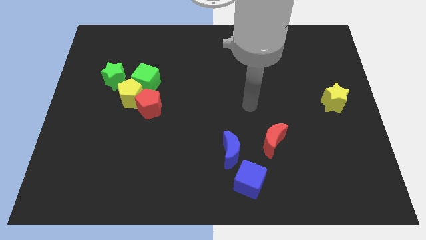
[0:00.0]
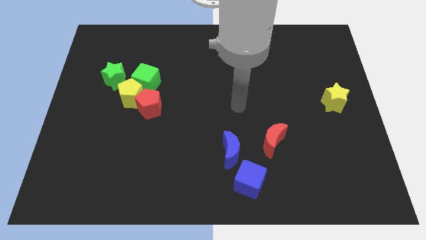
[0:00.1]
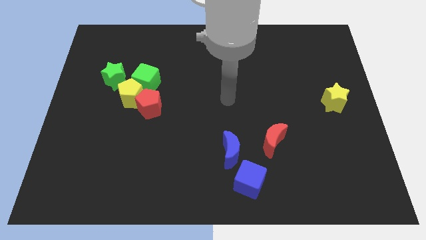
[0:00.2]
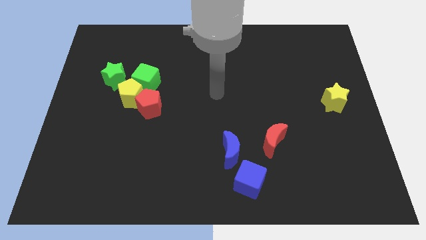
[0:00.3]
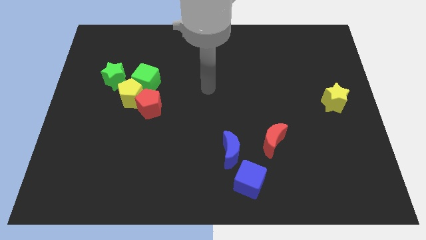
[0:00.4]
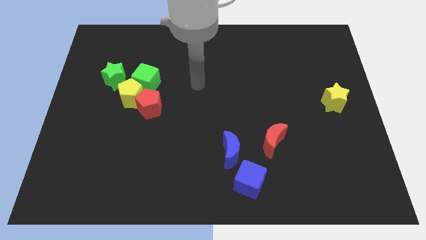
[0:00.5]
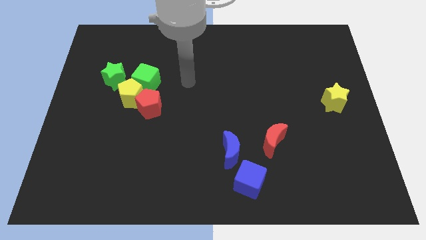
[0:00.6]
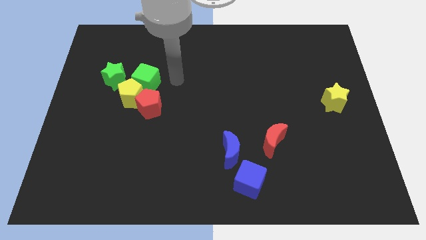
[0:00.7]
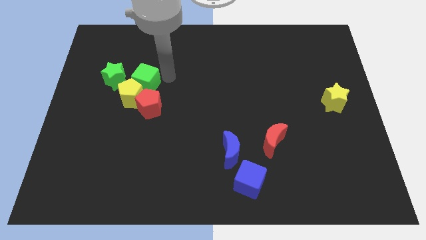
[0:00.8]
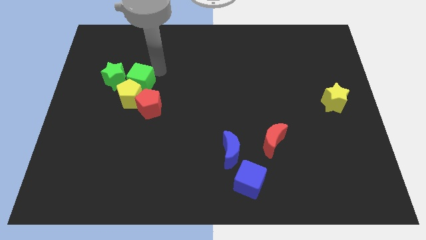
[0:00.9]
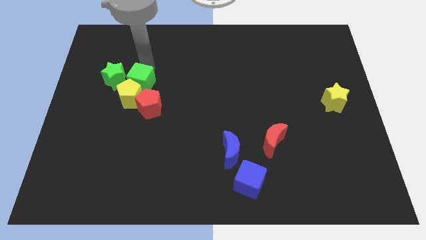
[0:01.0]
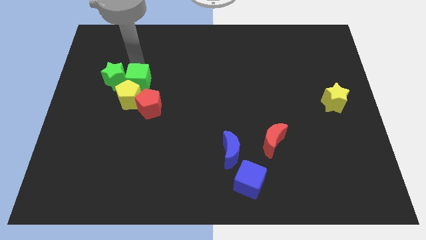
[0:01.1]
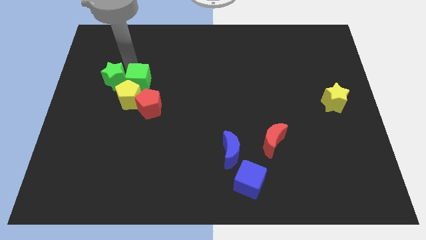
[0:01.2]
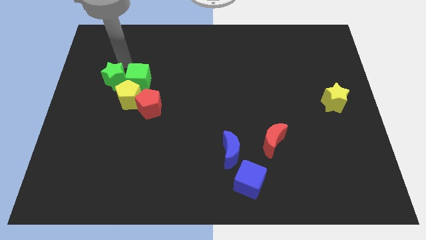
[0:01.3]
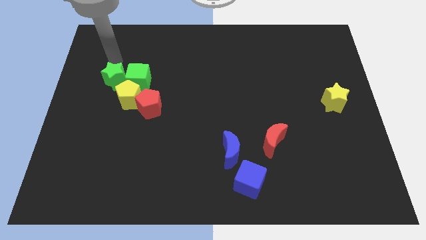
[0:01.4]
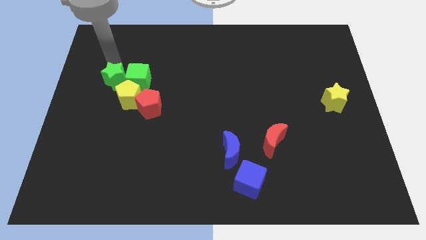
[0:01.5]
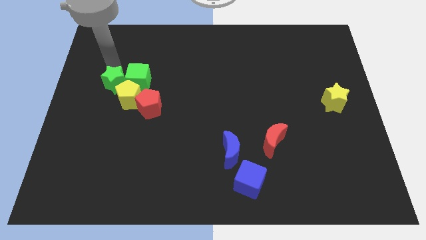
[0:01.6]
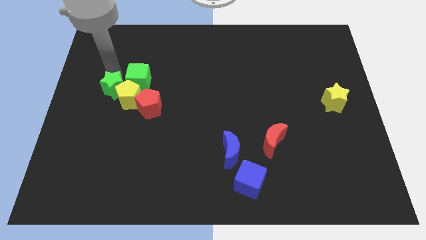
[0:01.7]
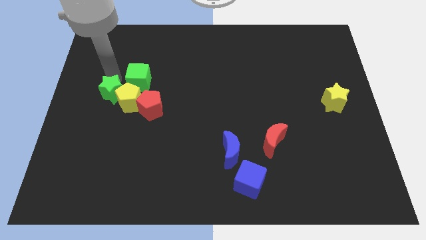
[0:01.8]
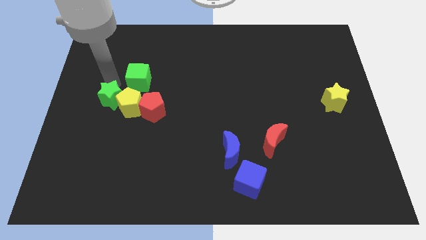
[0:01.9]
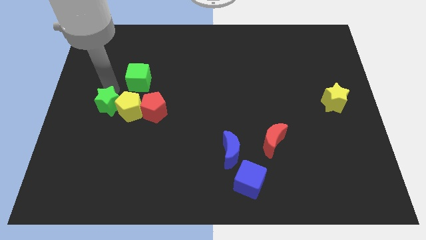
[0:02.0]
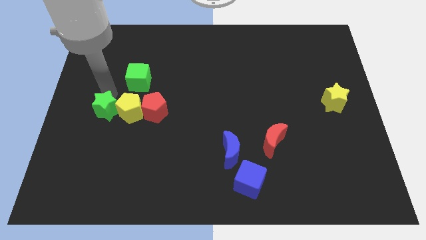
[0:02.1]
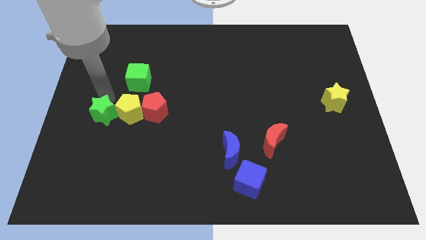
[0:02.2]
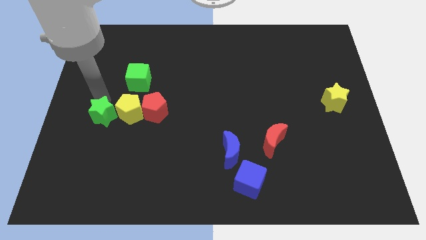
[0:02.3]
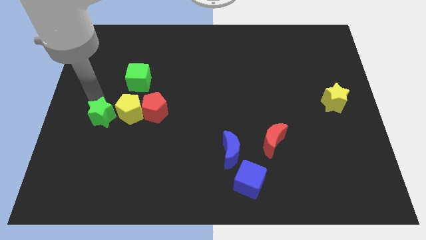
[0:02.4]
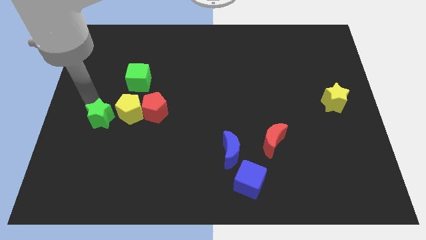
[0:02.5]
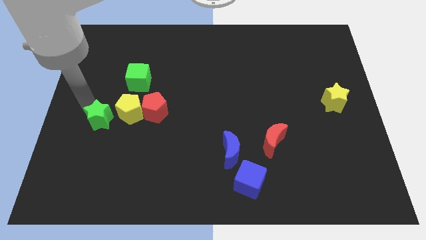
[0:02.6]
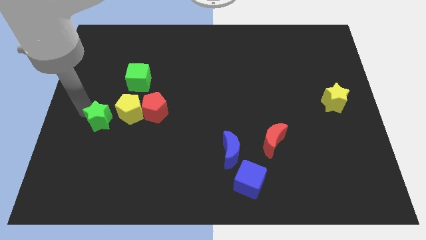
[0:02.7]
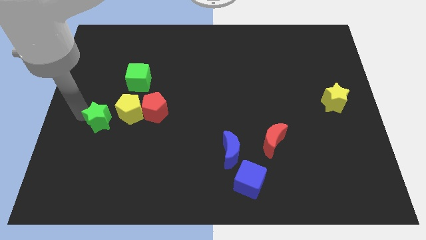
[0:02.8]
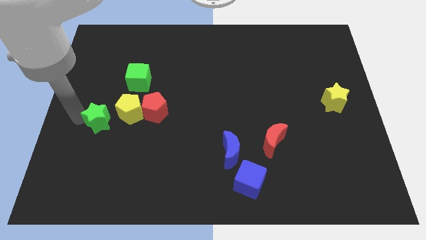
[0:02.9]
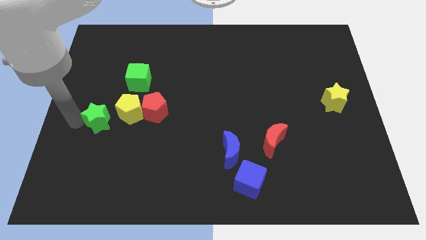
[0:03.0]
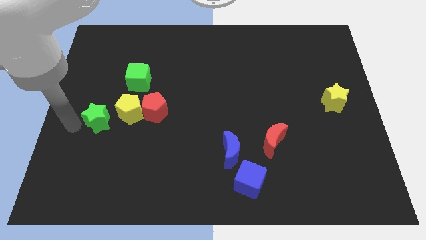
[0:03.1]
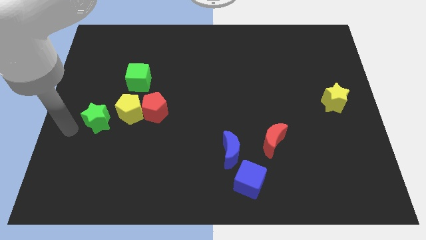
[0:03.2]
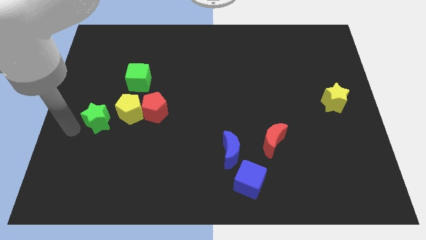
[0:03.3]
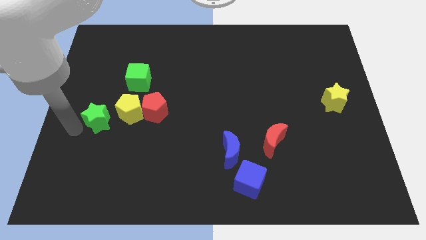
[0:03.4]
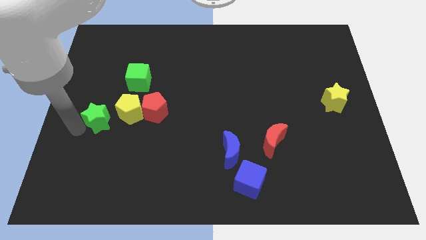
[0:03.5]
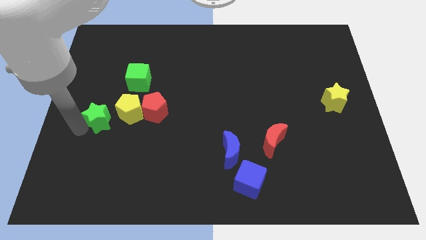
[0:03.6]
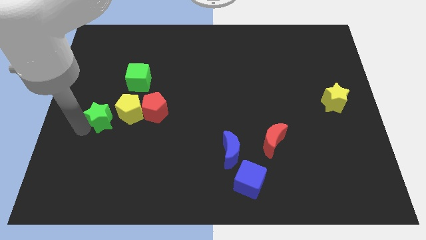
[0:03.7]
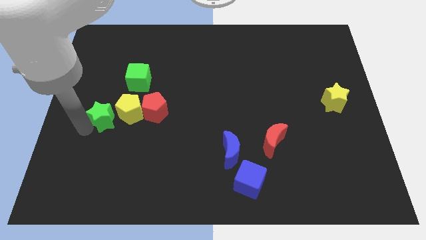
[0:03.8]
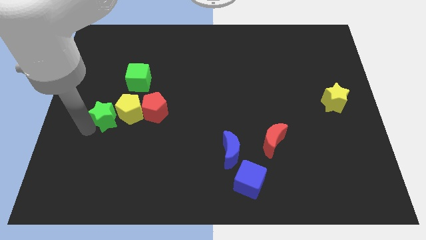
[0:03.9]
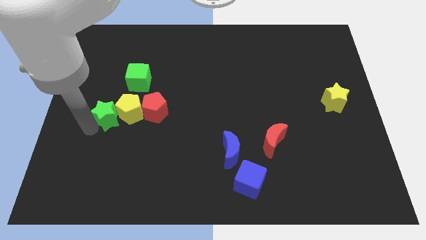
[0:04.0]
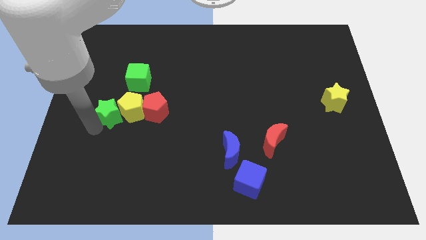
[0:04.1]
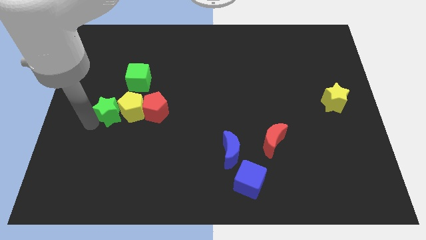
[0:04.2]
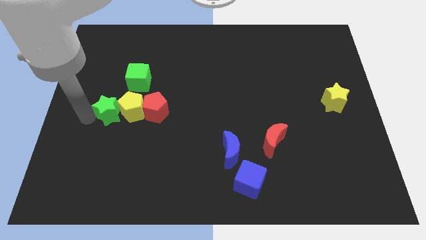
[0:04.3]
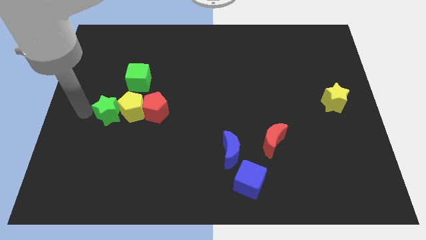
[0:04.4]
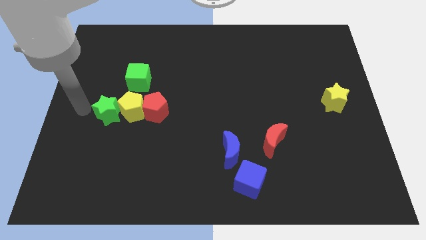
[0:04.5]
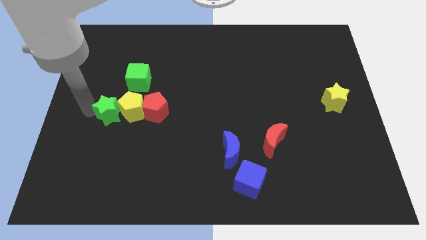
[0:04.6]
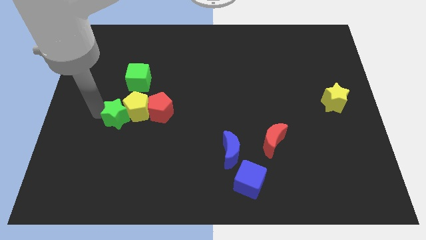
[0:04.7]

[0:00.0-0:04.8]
move the green star a bit down and right diagonally

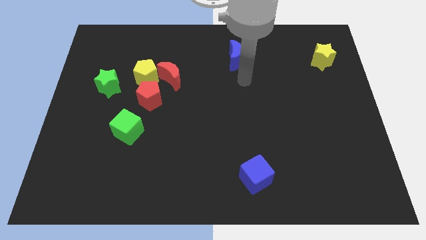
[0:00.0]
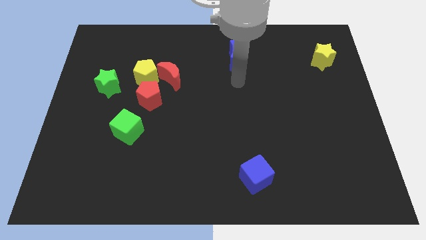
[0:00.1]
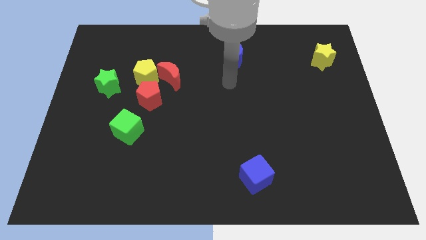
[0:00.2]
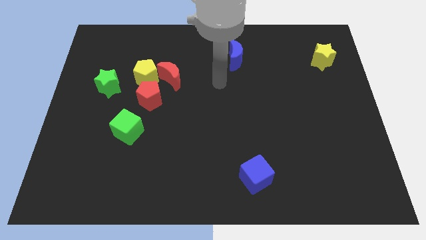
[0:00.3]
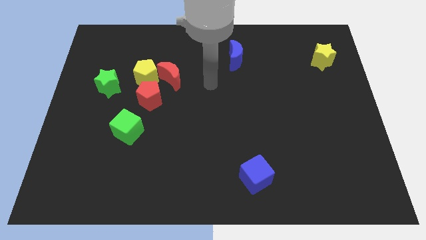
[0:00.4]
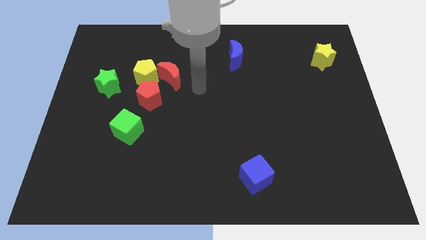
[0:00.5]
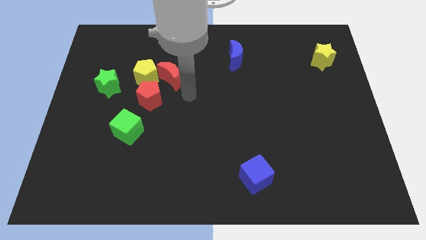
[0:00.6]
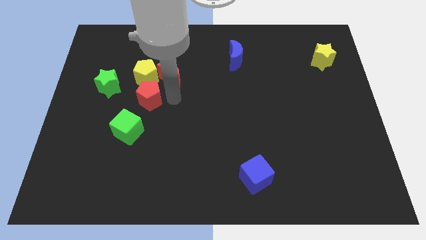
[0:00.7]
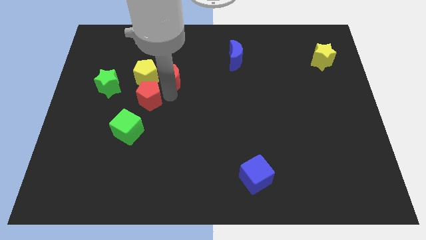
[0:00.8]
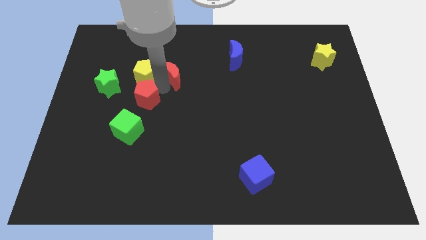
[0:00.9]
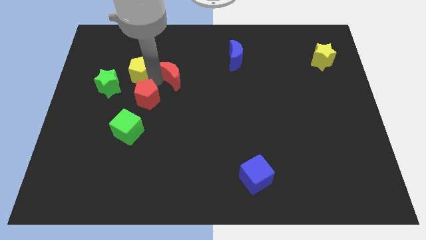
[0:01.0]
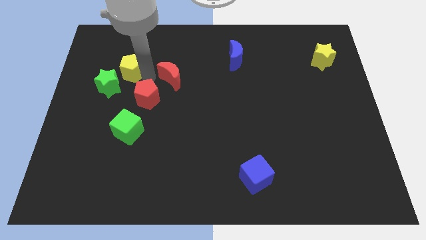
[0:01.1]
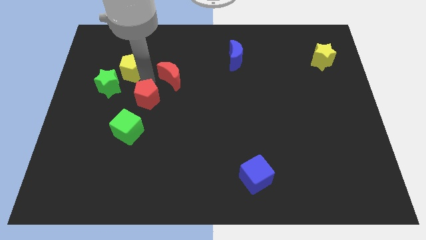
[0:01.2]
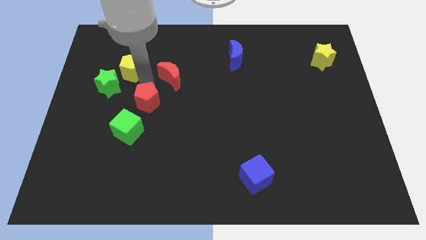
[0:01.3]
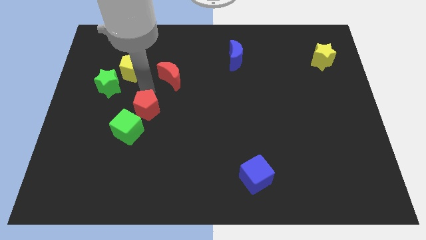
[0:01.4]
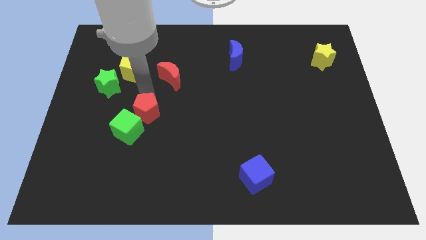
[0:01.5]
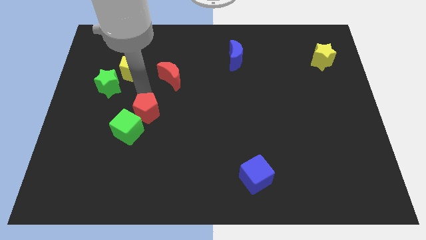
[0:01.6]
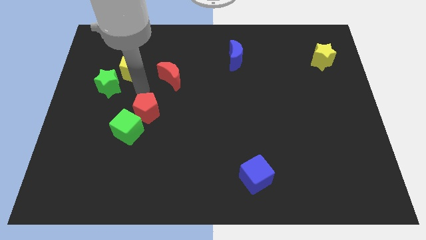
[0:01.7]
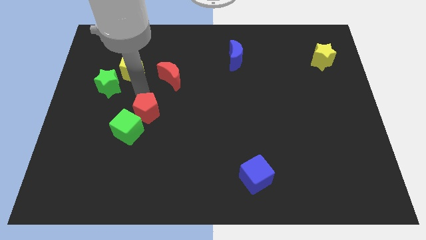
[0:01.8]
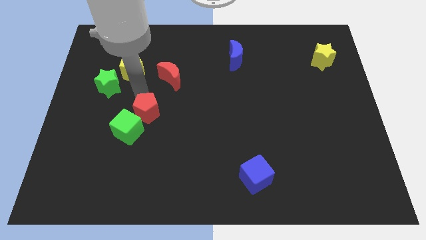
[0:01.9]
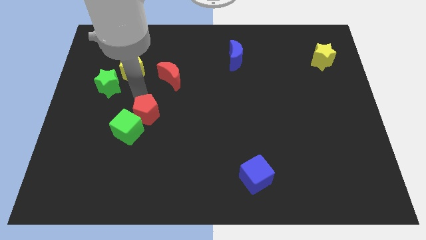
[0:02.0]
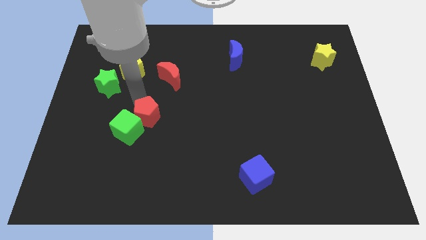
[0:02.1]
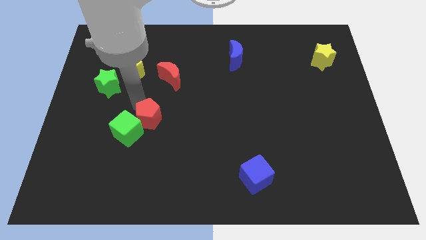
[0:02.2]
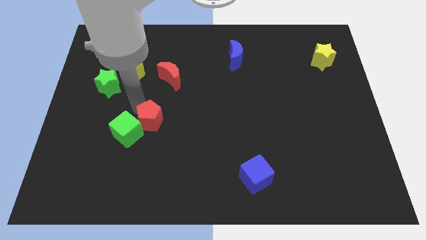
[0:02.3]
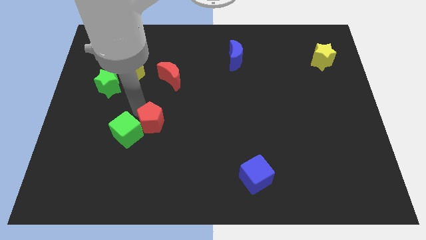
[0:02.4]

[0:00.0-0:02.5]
slightly slide the red pentagon down

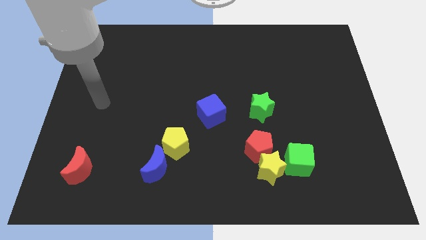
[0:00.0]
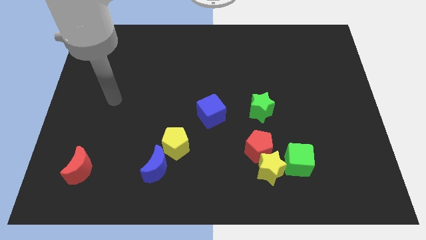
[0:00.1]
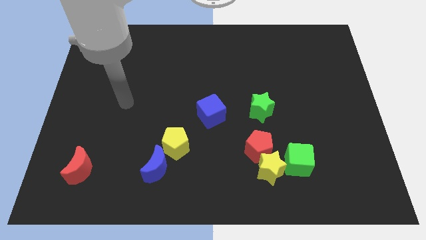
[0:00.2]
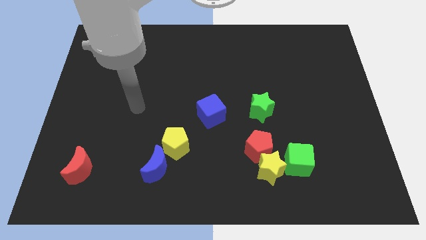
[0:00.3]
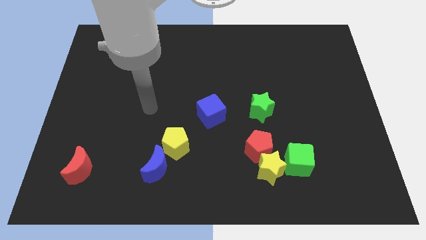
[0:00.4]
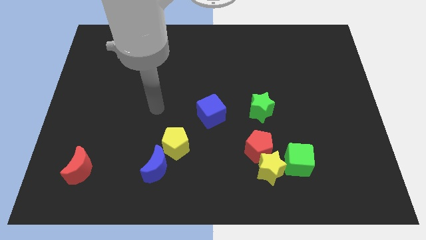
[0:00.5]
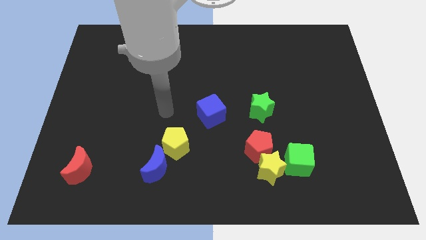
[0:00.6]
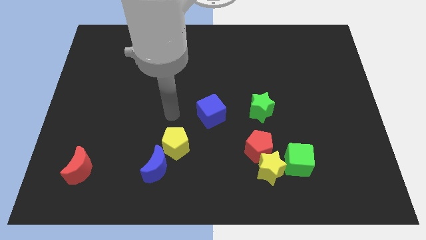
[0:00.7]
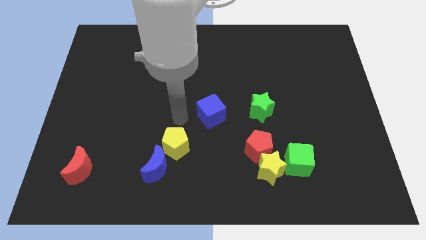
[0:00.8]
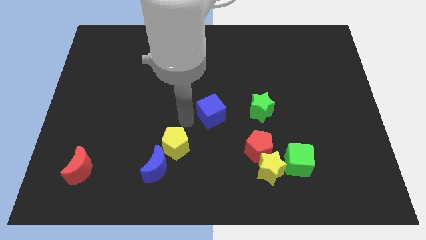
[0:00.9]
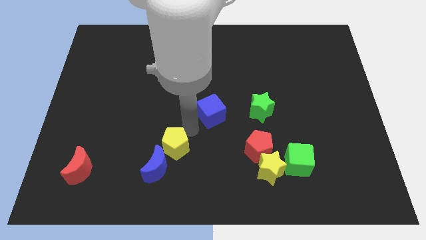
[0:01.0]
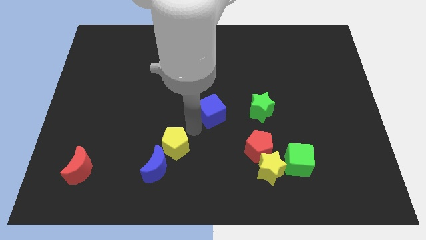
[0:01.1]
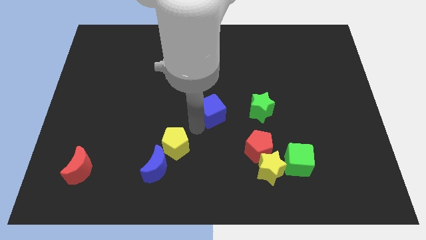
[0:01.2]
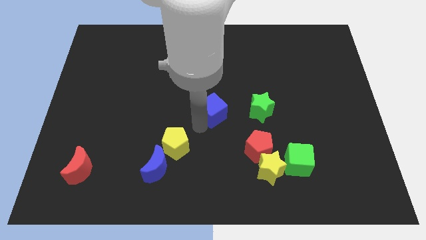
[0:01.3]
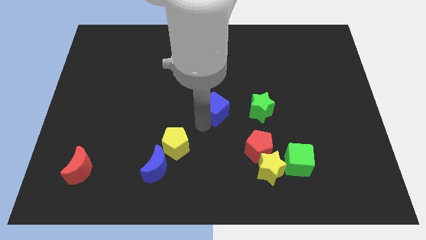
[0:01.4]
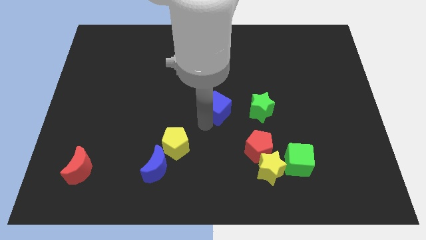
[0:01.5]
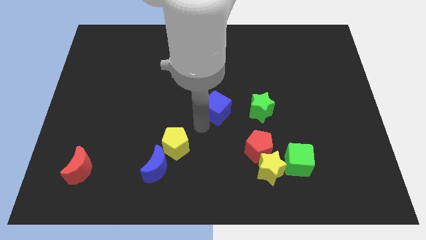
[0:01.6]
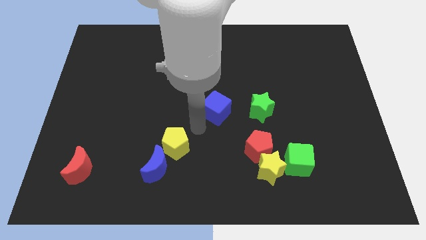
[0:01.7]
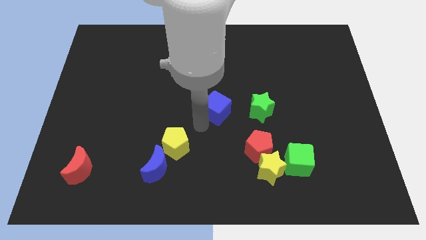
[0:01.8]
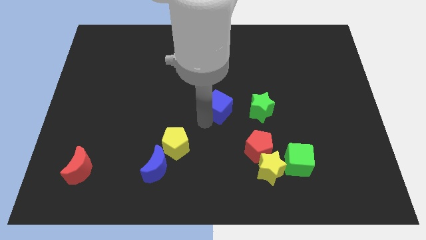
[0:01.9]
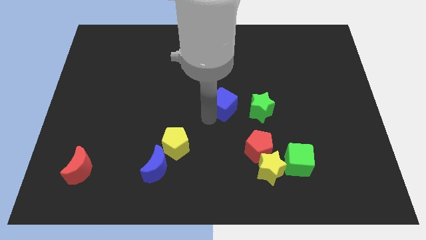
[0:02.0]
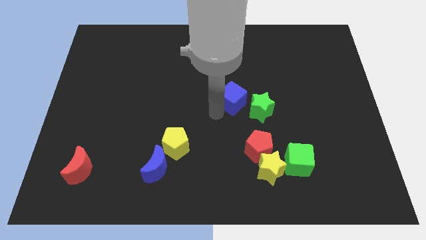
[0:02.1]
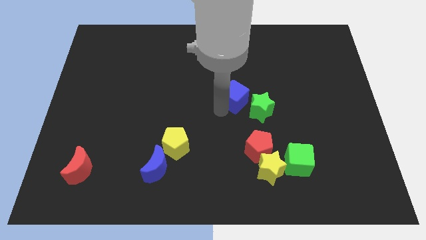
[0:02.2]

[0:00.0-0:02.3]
move the blue cube upwards and right diagonally a little
